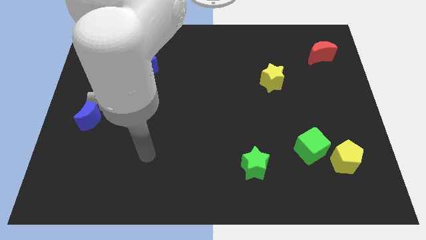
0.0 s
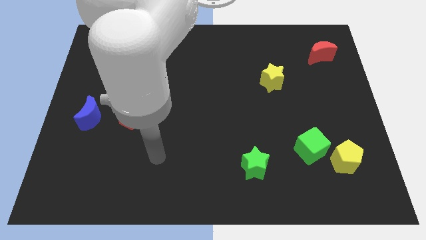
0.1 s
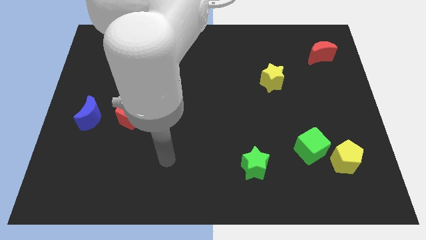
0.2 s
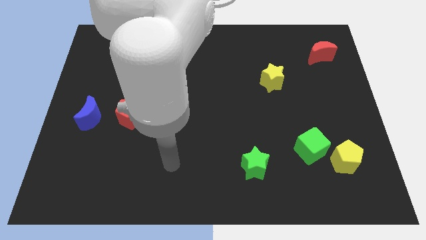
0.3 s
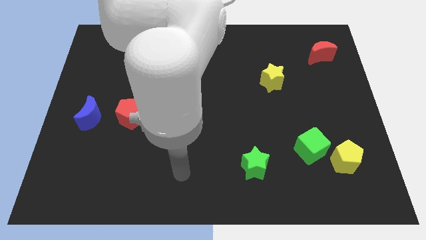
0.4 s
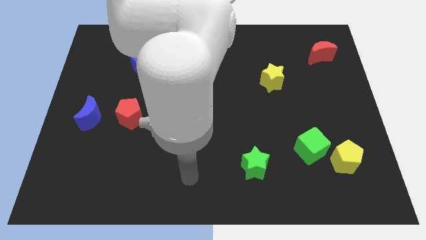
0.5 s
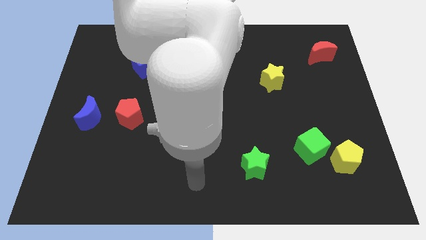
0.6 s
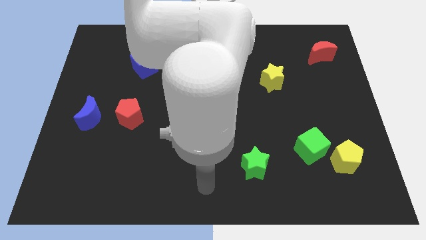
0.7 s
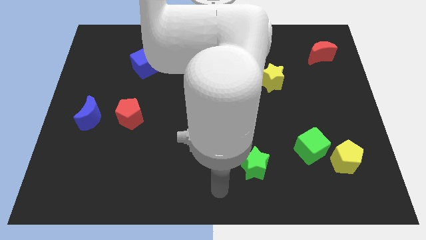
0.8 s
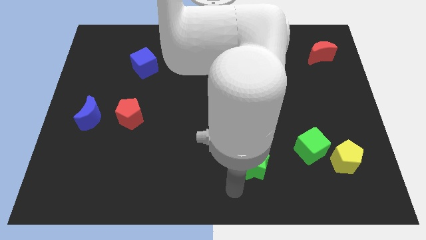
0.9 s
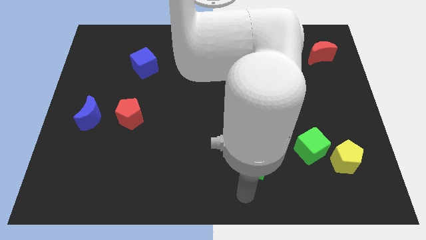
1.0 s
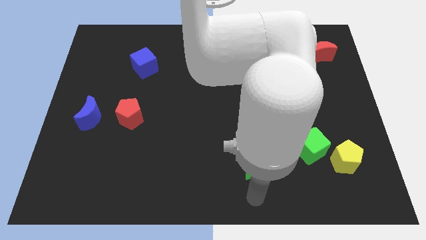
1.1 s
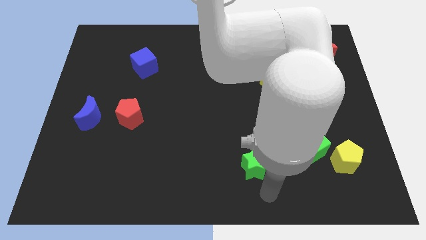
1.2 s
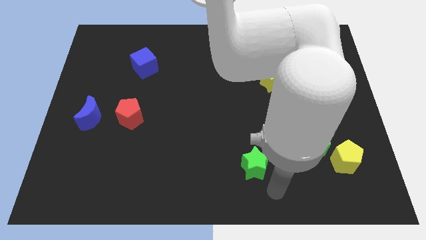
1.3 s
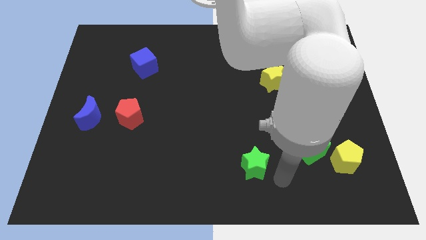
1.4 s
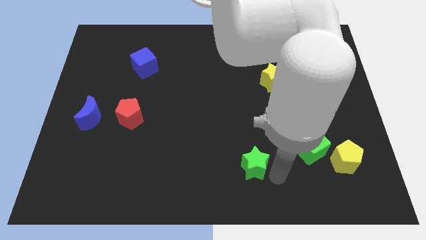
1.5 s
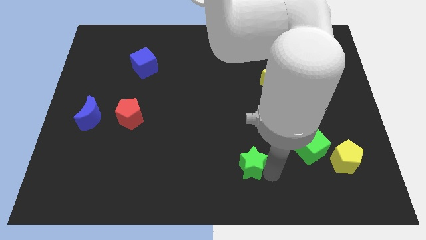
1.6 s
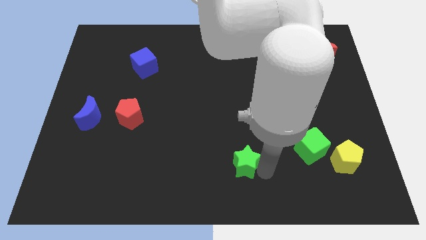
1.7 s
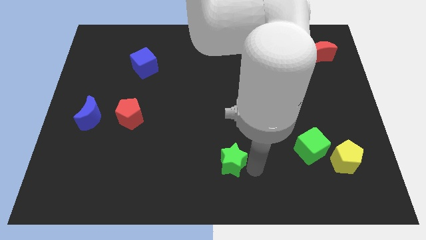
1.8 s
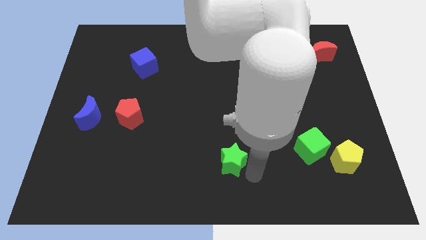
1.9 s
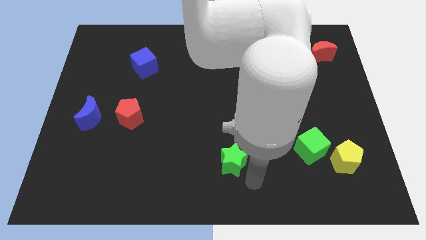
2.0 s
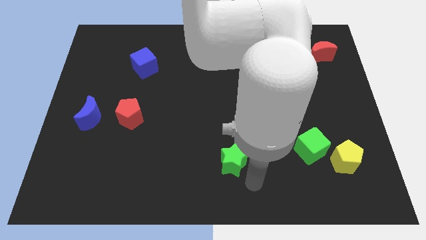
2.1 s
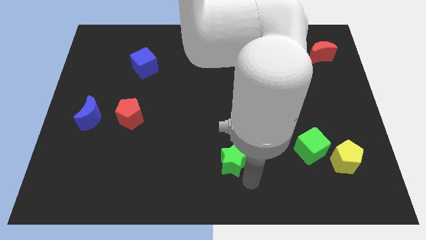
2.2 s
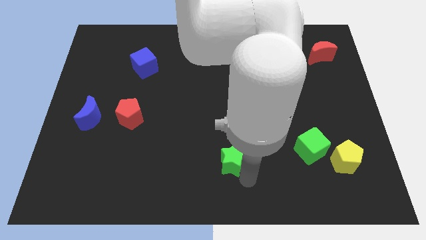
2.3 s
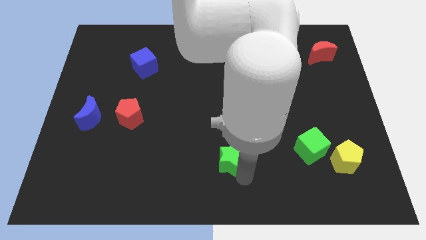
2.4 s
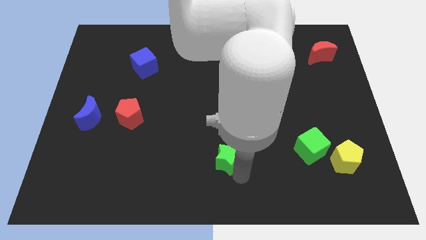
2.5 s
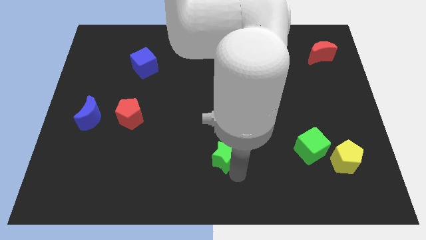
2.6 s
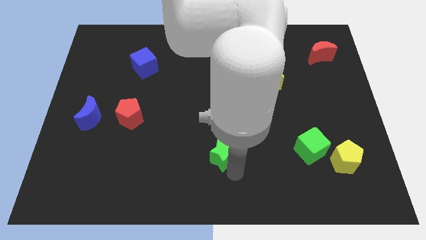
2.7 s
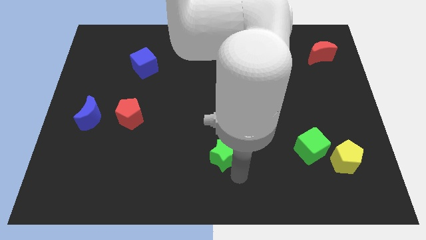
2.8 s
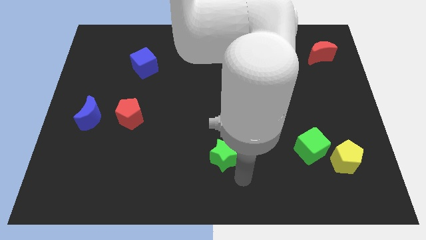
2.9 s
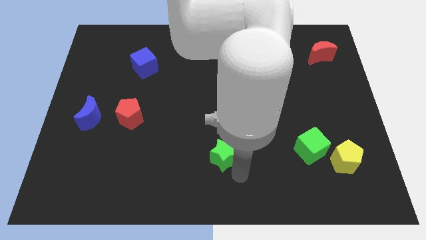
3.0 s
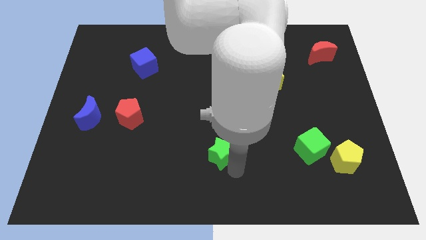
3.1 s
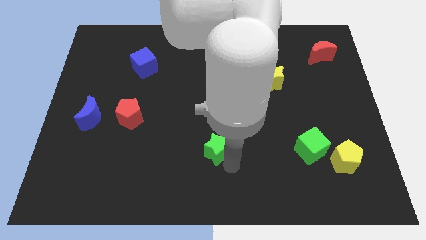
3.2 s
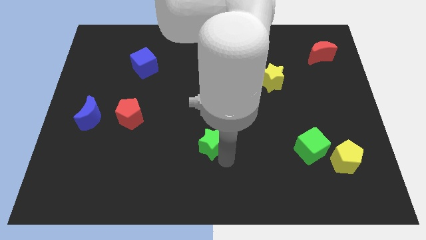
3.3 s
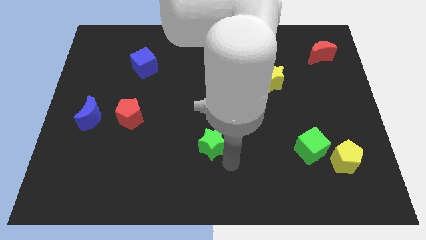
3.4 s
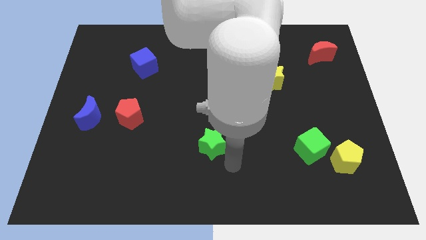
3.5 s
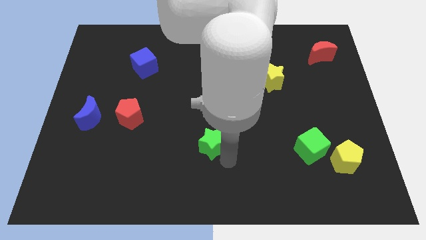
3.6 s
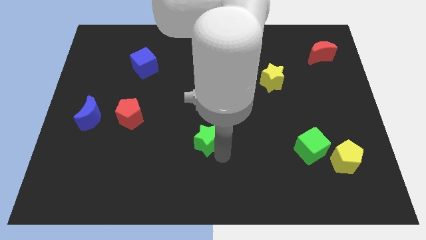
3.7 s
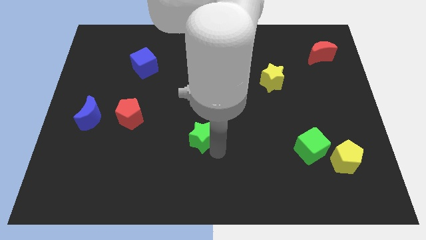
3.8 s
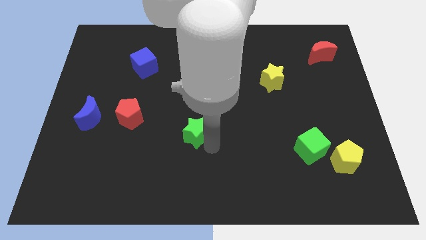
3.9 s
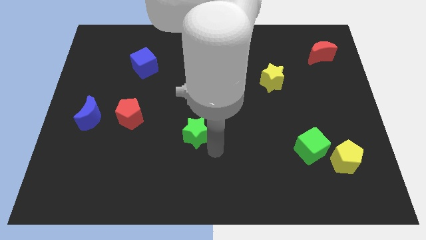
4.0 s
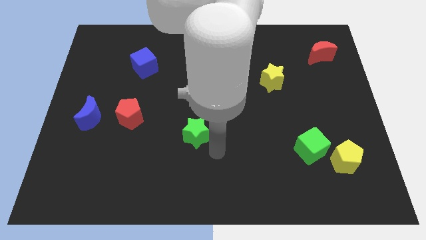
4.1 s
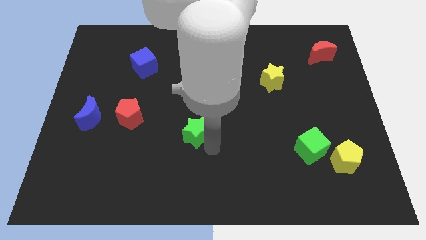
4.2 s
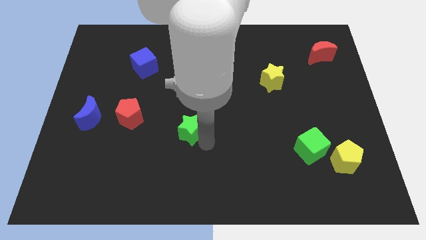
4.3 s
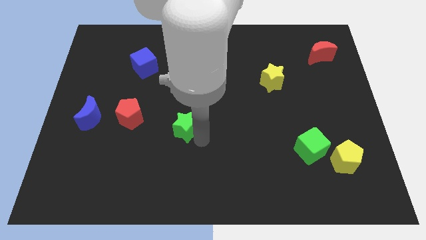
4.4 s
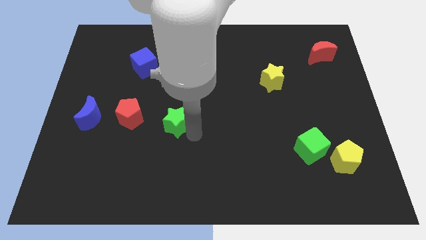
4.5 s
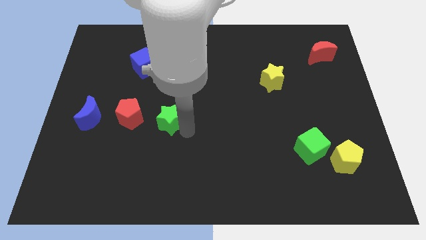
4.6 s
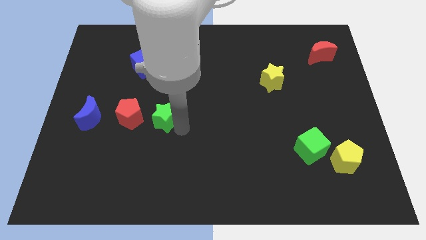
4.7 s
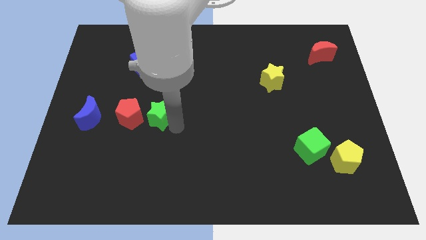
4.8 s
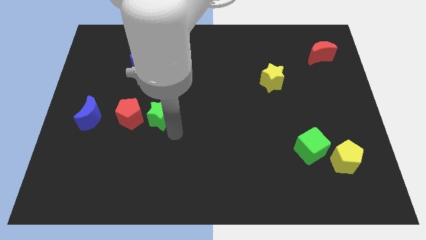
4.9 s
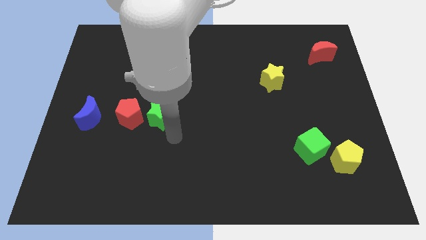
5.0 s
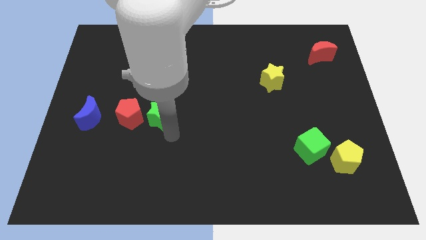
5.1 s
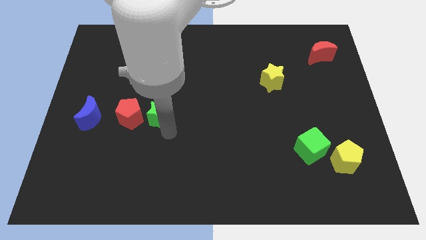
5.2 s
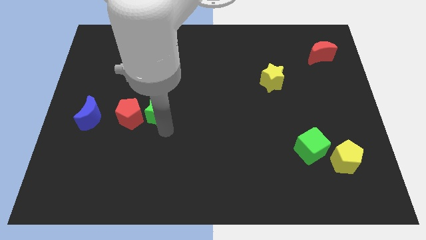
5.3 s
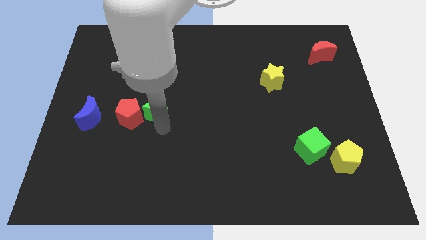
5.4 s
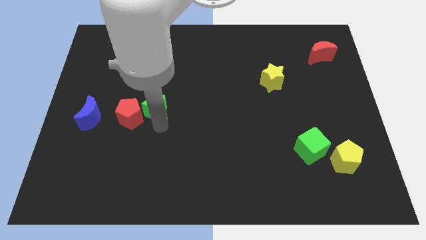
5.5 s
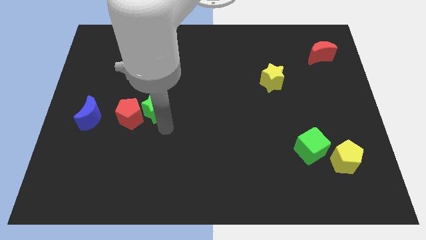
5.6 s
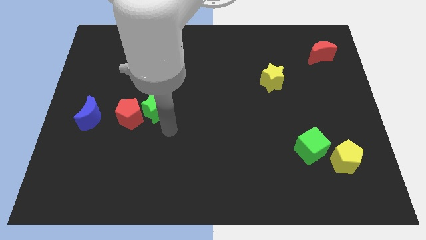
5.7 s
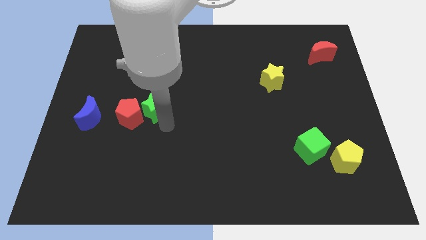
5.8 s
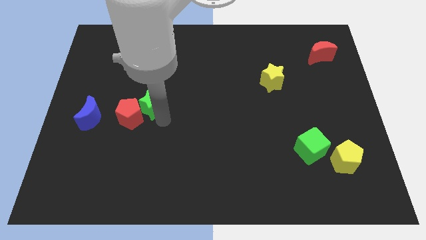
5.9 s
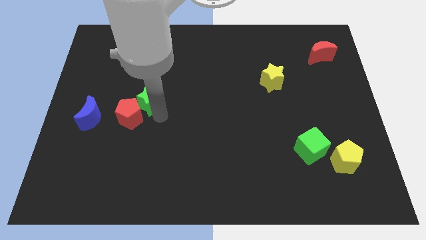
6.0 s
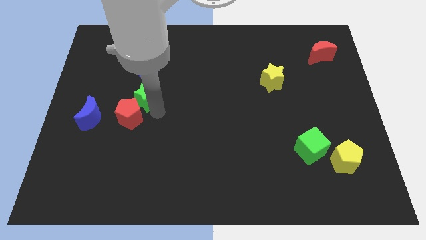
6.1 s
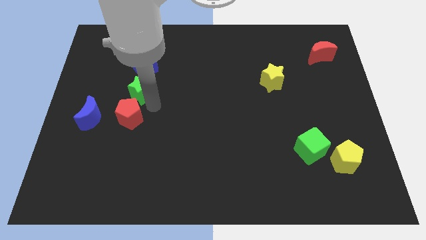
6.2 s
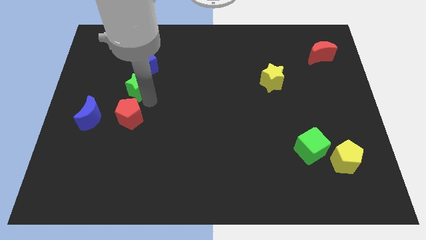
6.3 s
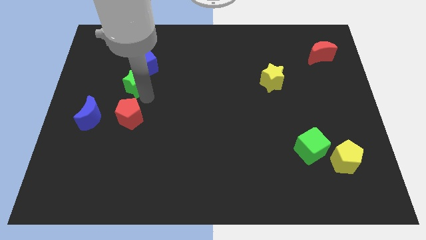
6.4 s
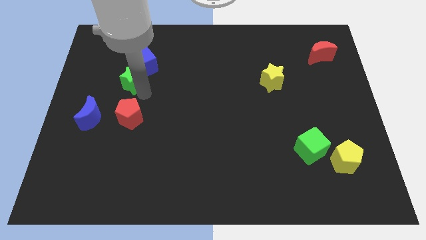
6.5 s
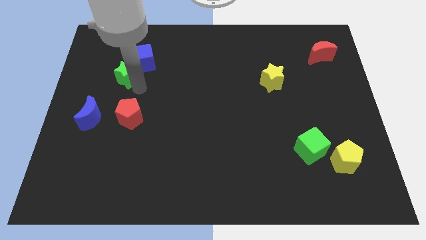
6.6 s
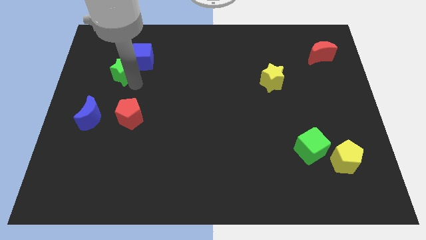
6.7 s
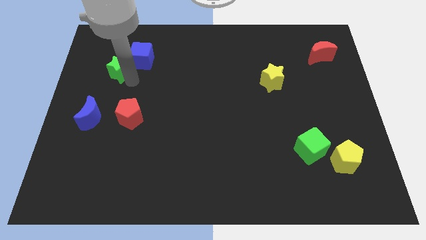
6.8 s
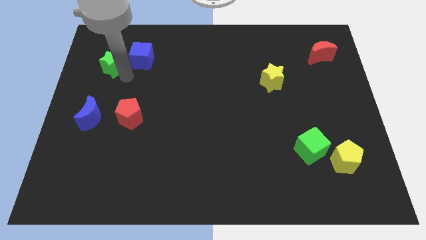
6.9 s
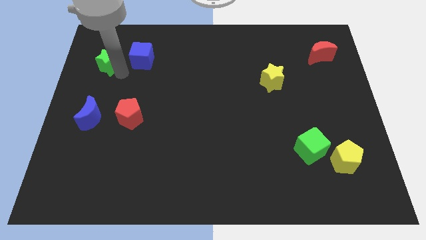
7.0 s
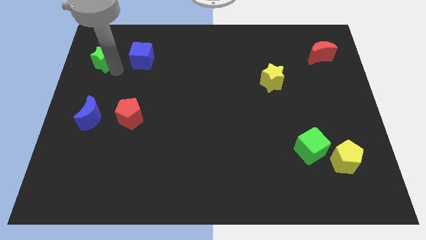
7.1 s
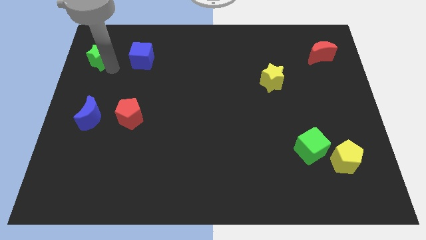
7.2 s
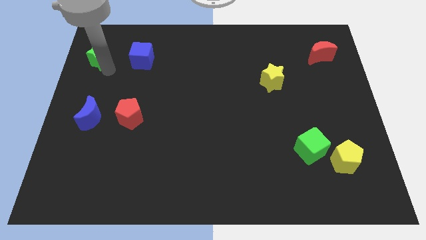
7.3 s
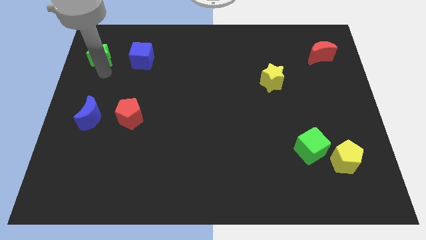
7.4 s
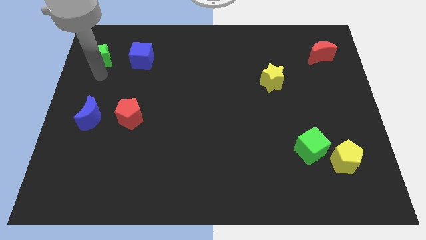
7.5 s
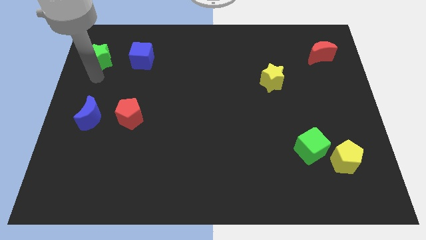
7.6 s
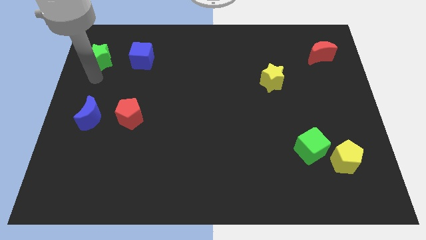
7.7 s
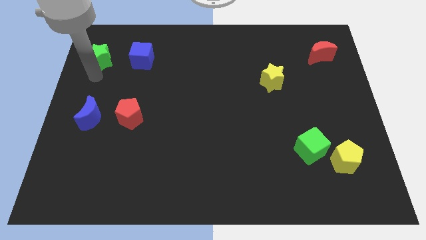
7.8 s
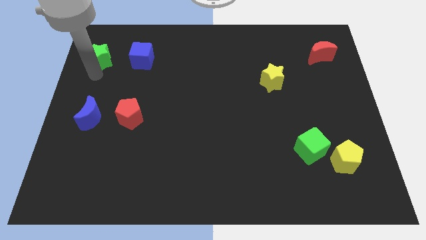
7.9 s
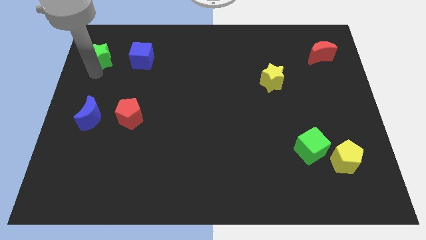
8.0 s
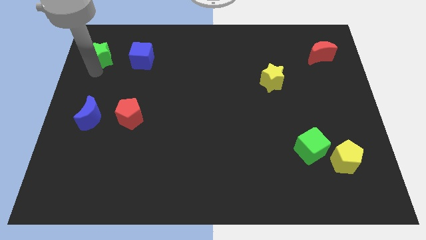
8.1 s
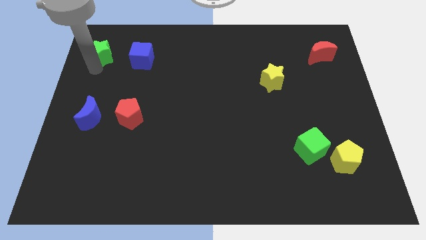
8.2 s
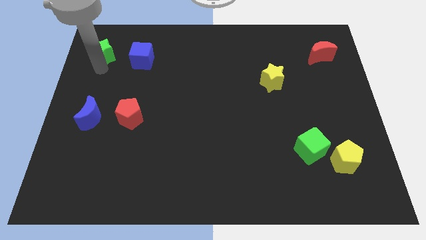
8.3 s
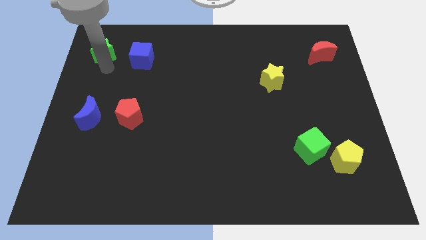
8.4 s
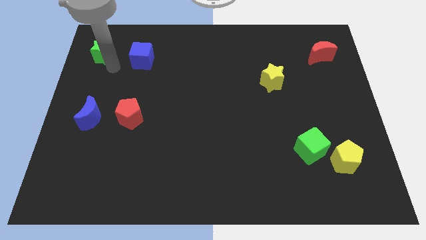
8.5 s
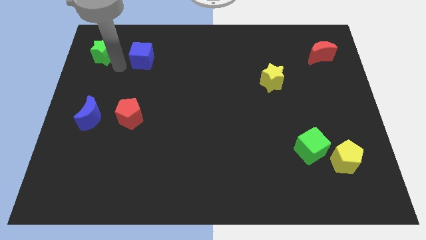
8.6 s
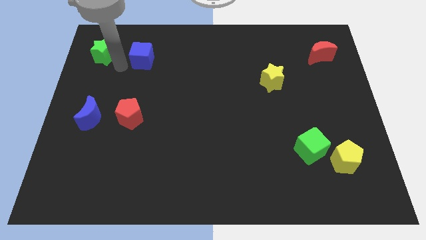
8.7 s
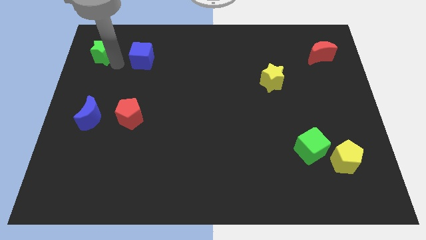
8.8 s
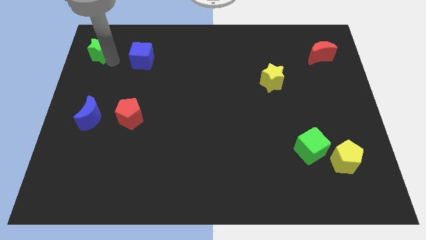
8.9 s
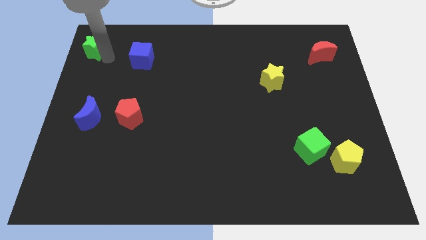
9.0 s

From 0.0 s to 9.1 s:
move the green star to the top left
